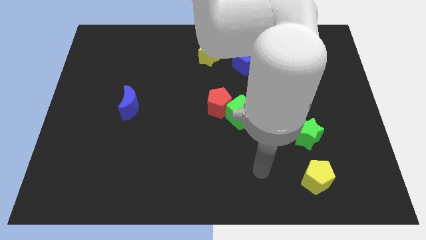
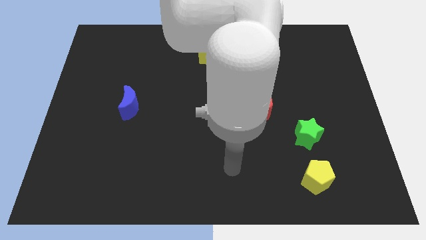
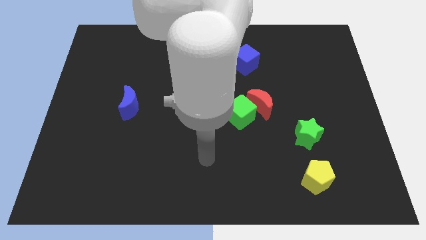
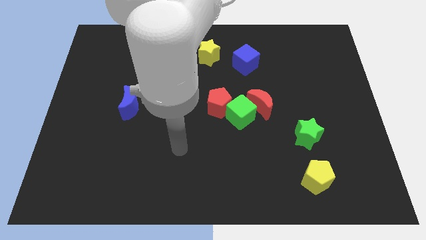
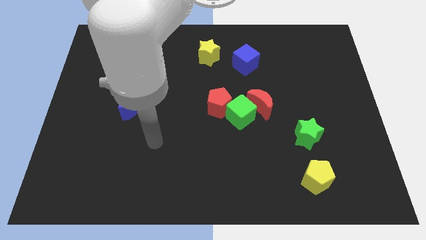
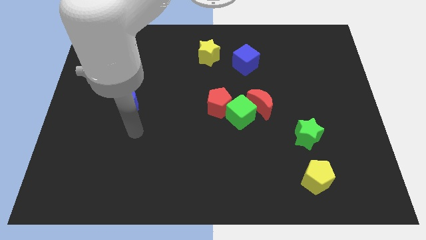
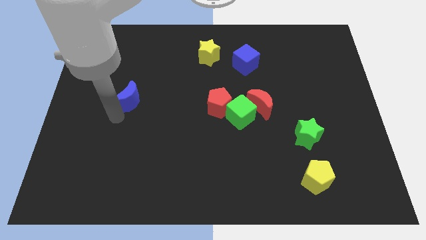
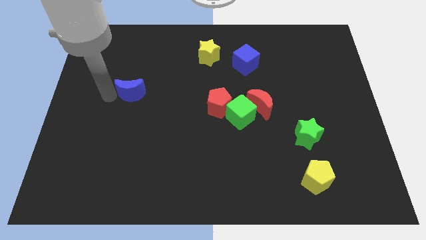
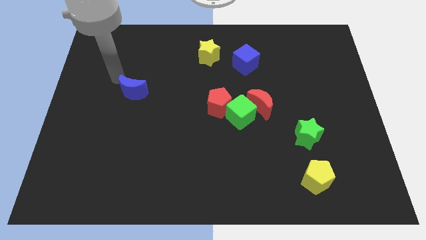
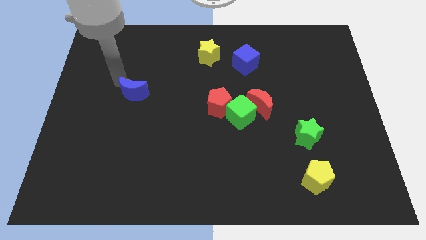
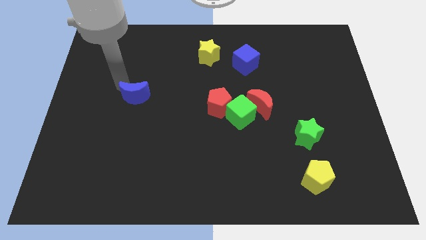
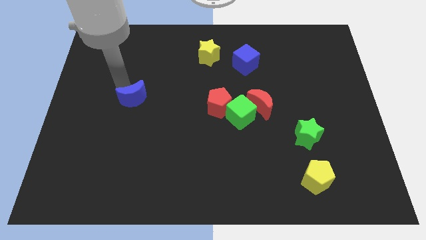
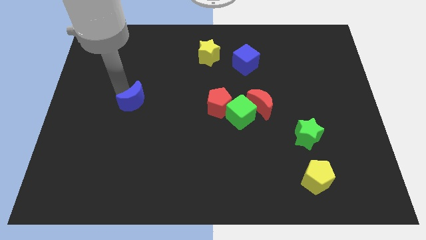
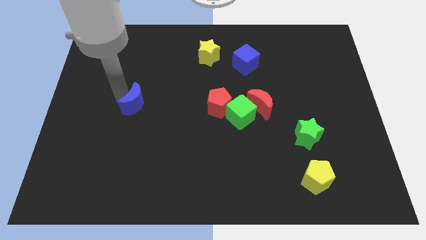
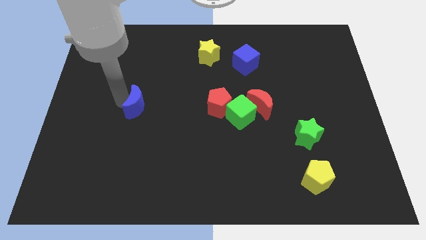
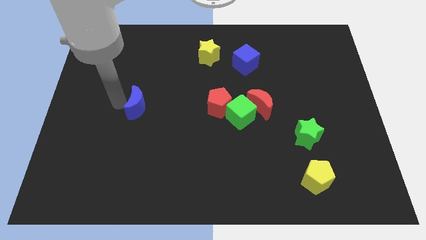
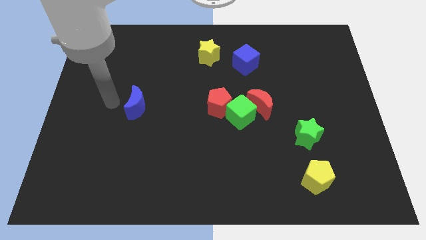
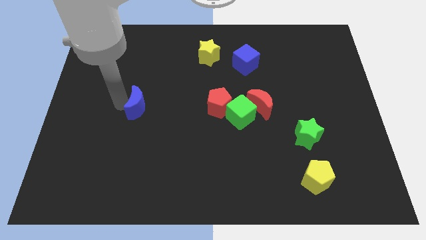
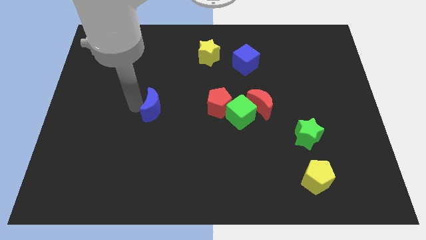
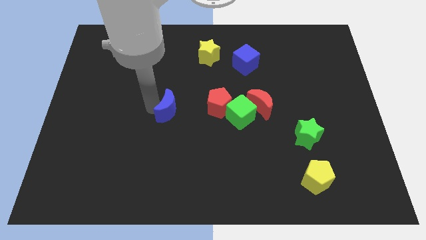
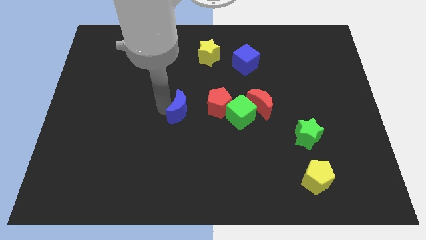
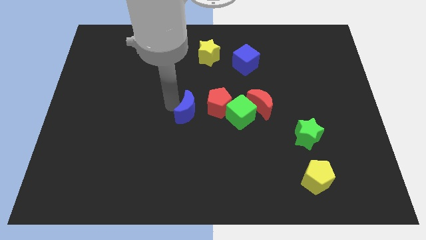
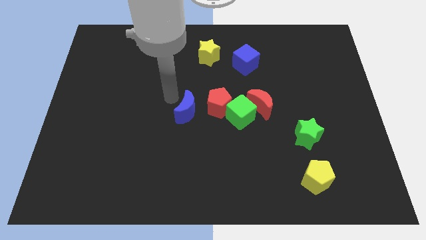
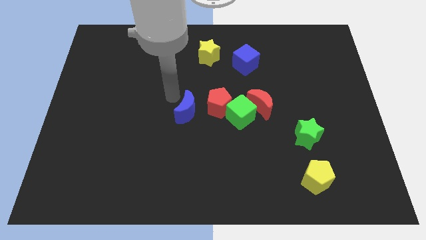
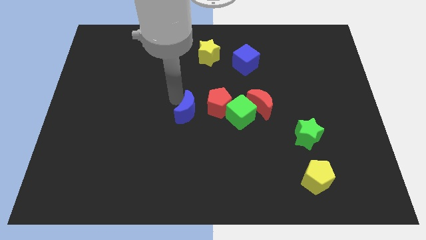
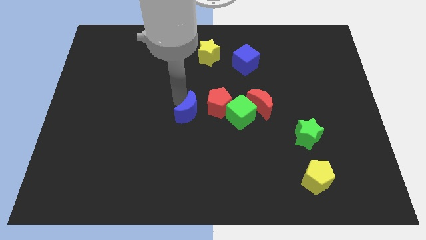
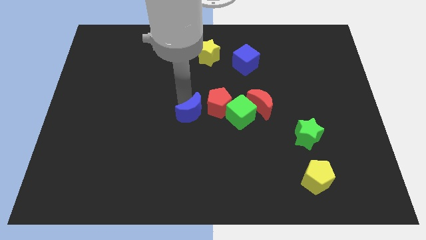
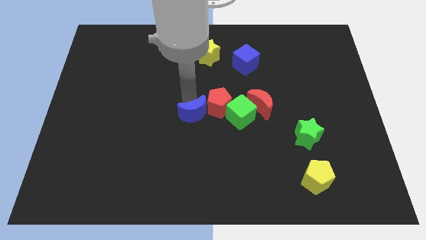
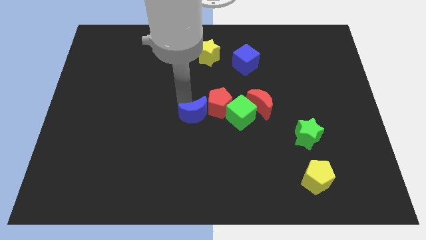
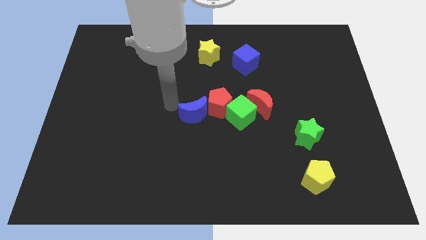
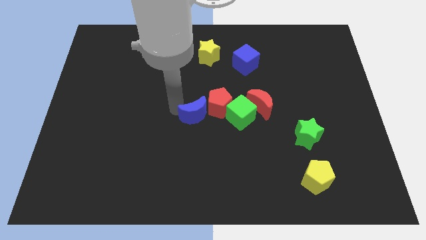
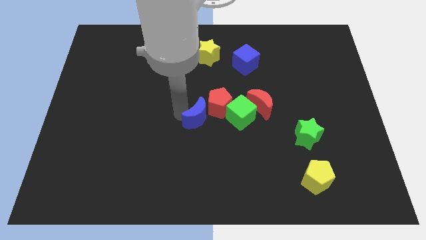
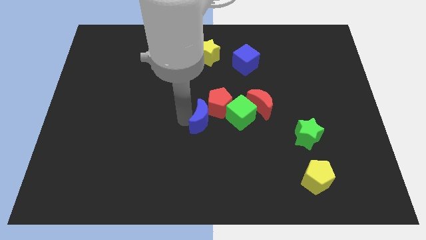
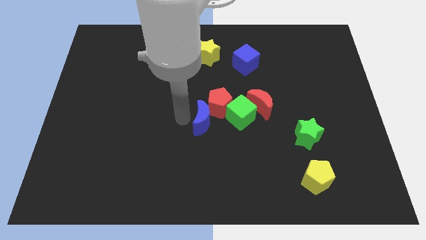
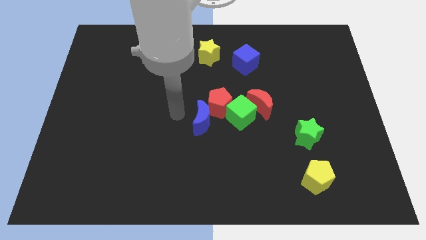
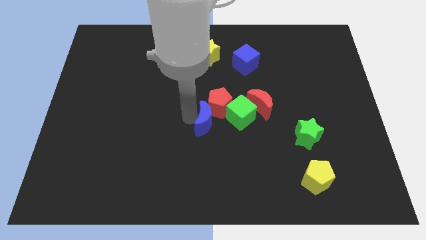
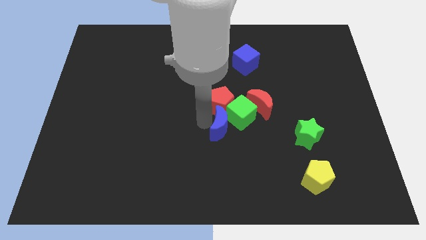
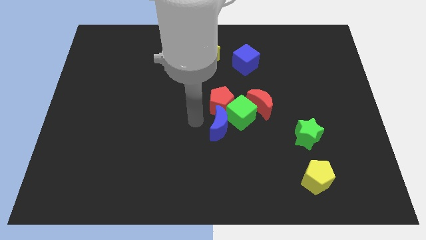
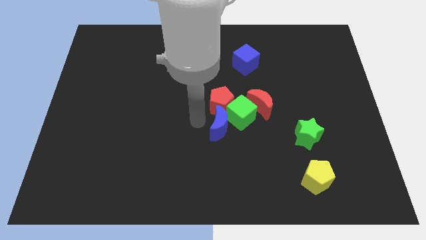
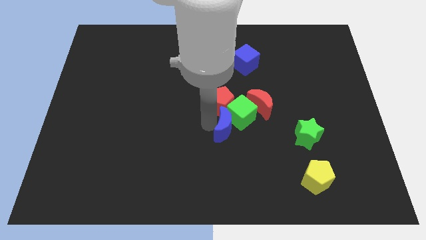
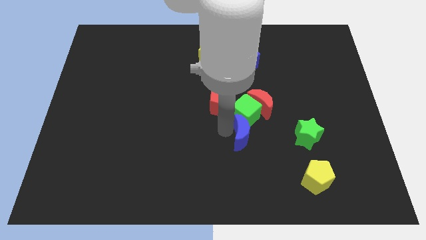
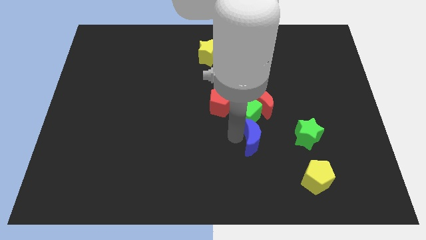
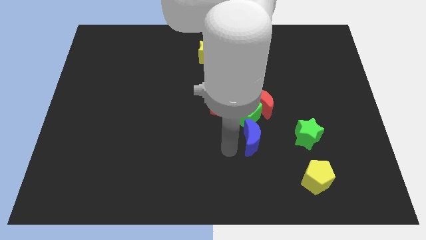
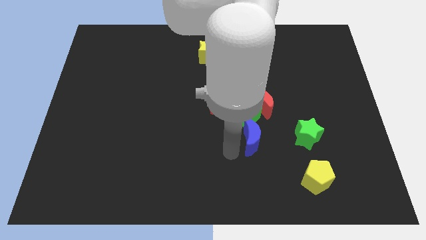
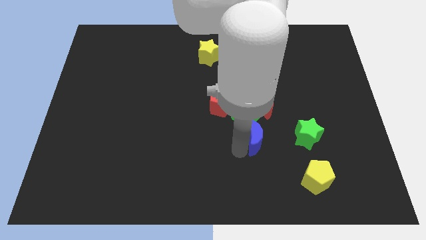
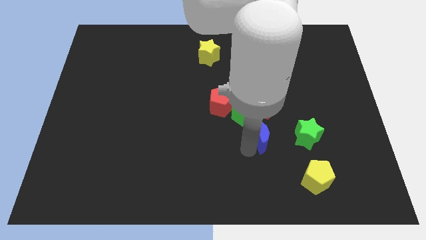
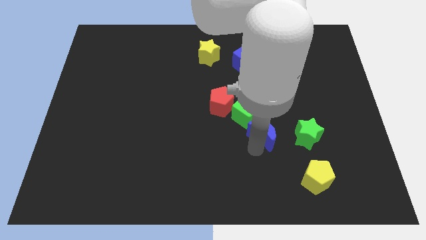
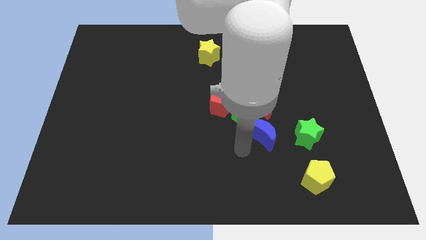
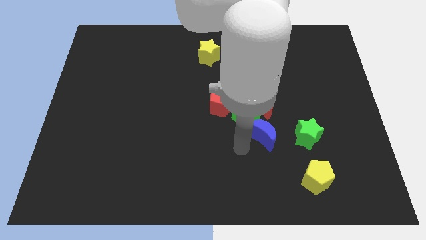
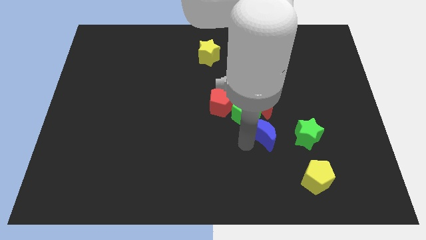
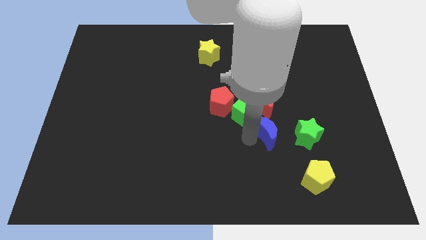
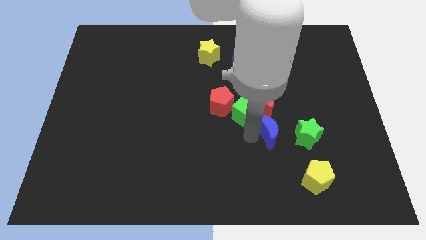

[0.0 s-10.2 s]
push the blue moon to the bottom right of the red moon

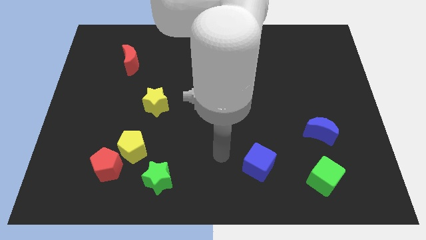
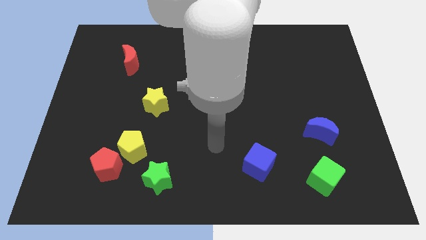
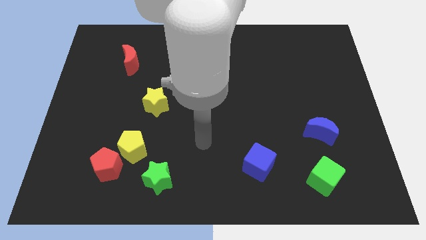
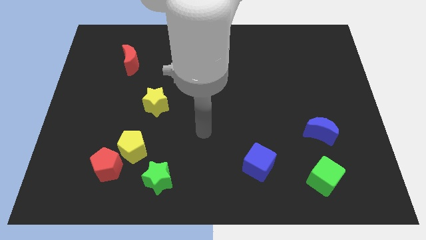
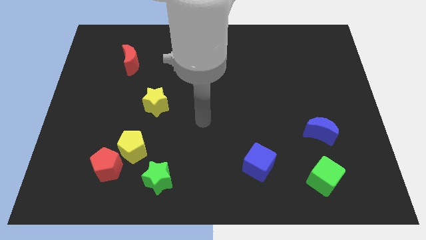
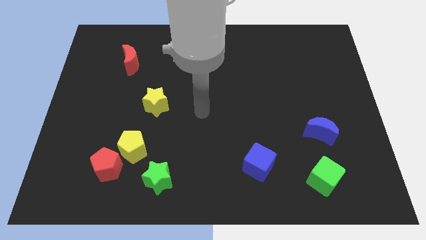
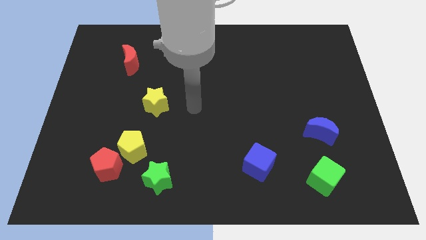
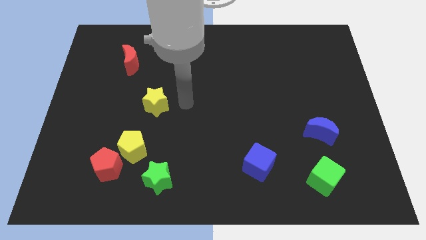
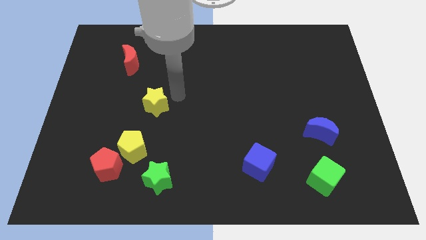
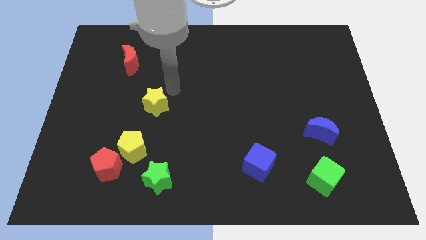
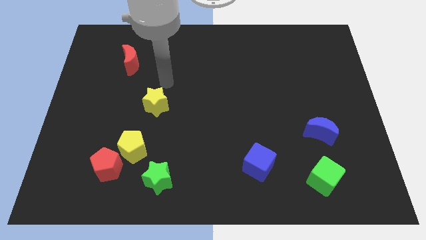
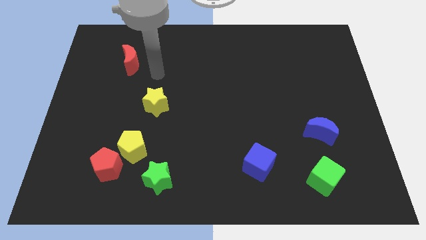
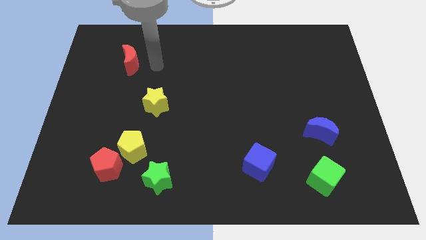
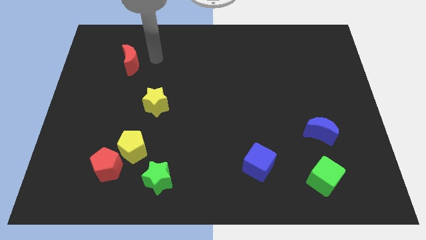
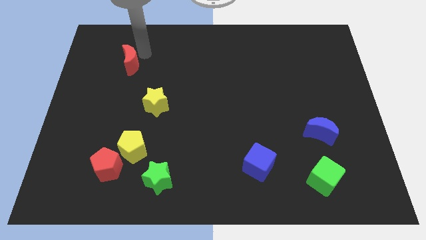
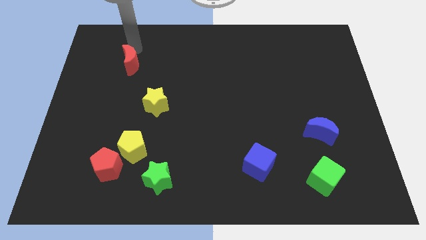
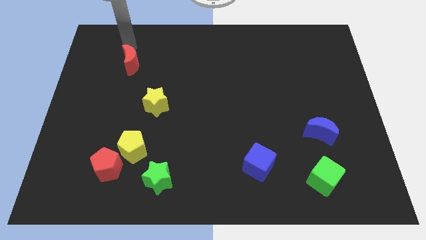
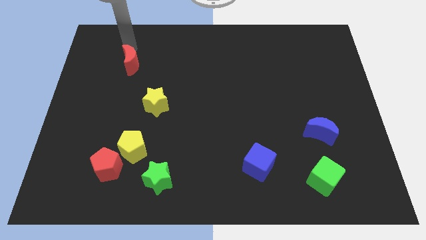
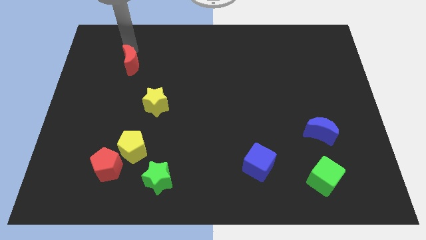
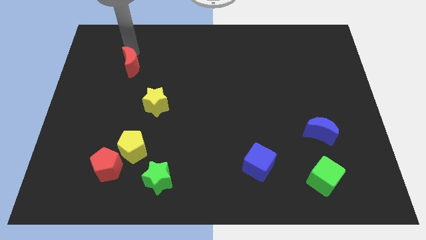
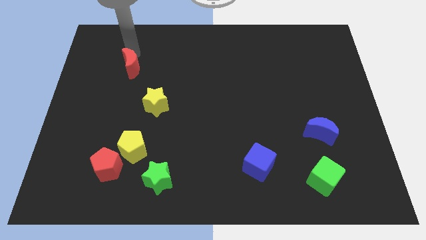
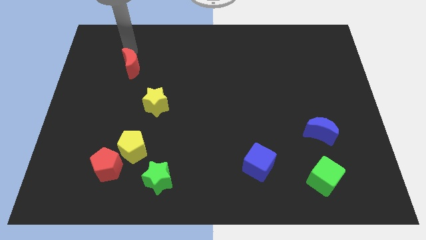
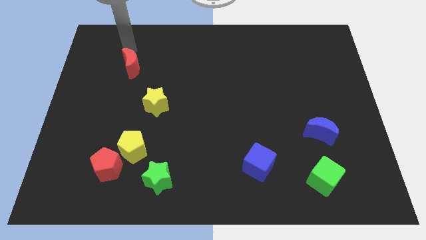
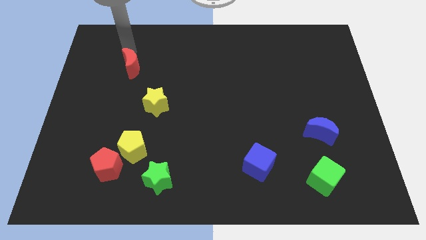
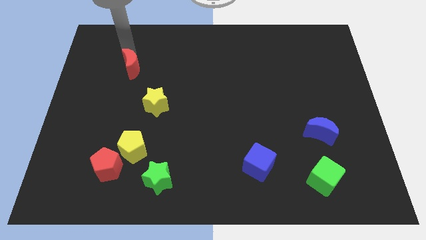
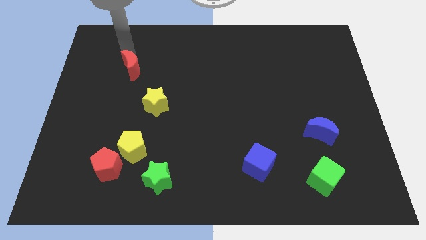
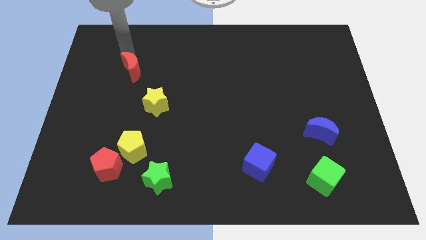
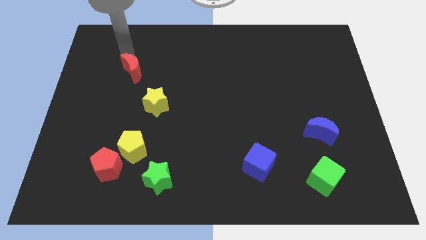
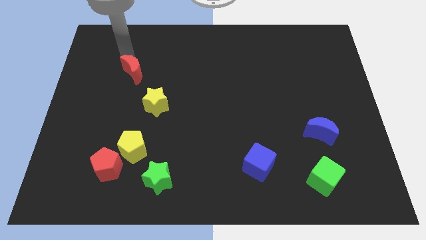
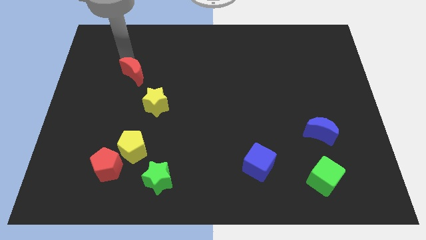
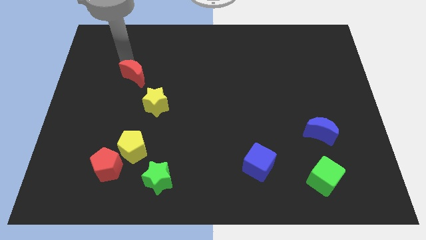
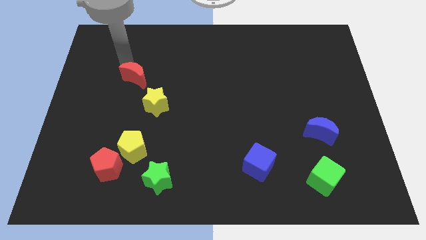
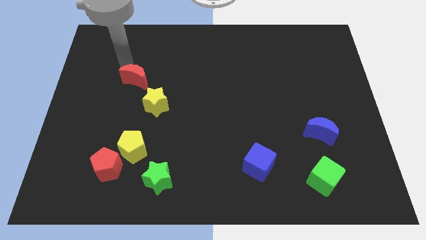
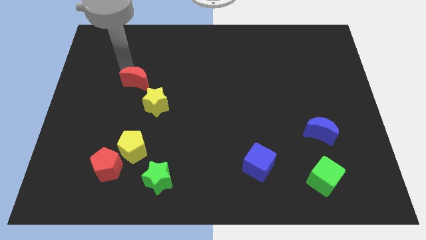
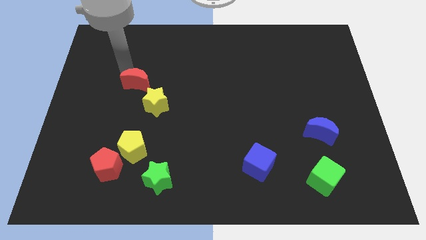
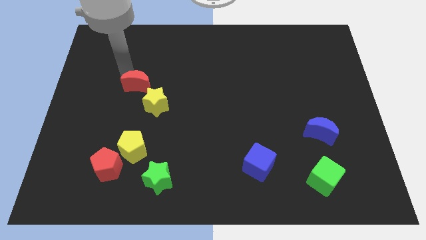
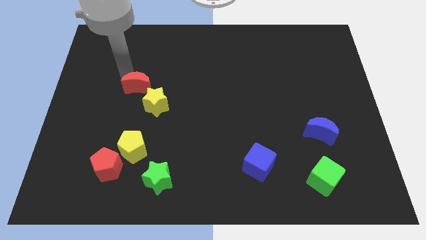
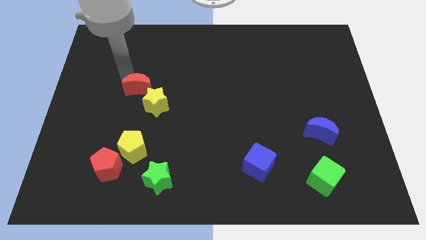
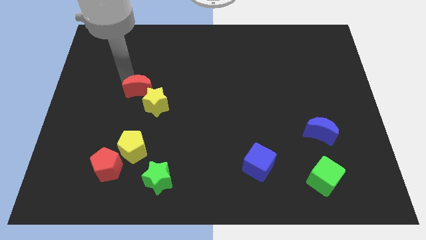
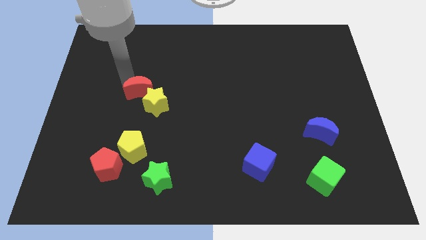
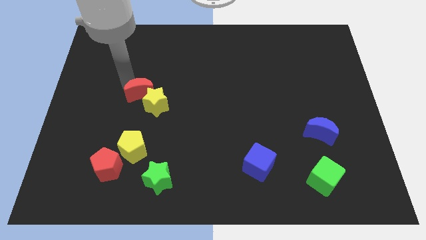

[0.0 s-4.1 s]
move the red moon above the yellow pentagon
